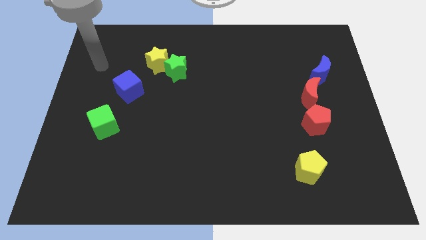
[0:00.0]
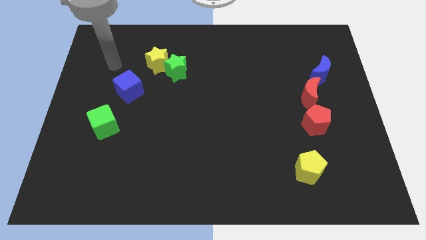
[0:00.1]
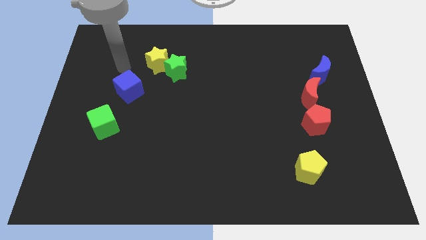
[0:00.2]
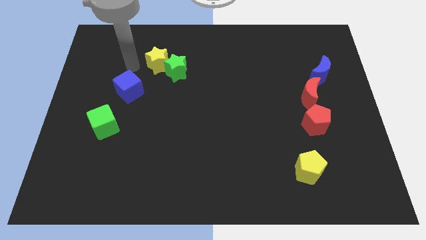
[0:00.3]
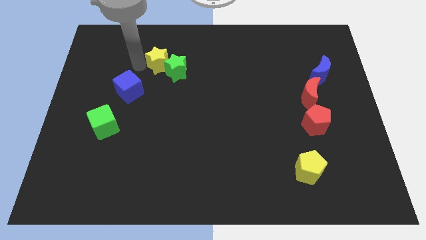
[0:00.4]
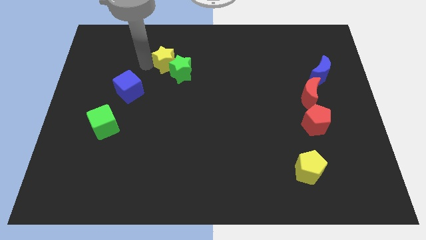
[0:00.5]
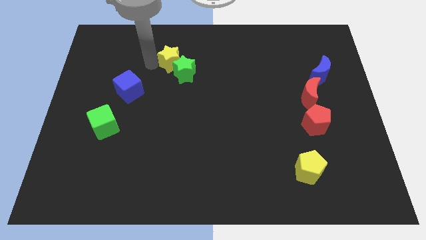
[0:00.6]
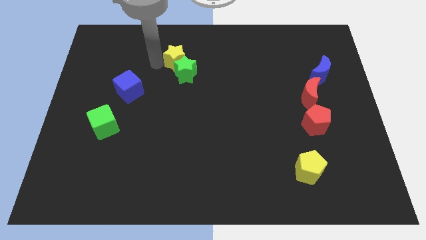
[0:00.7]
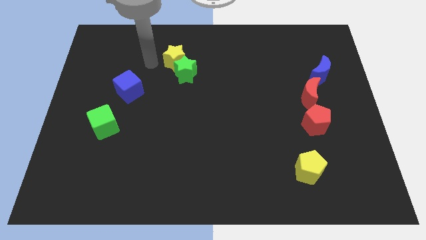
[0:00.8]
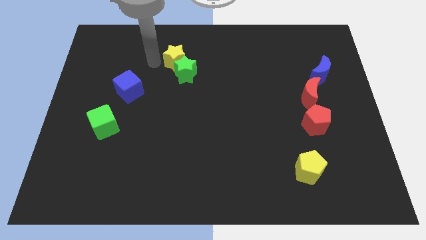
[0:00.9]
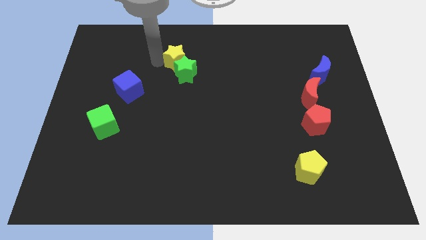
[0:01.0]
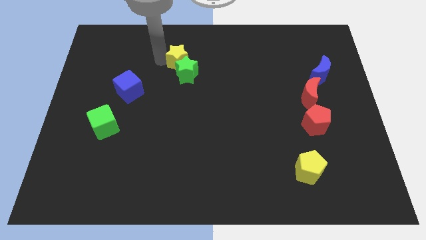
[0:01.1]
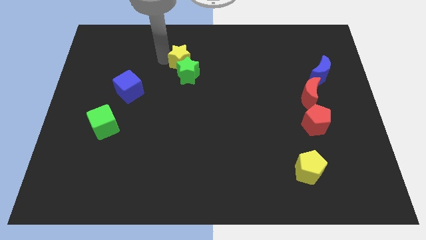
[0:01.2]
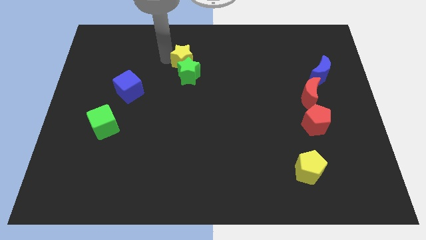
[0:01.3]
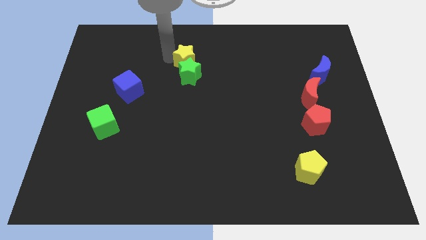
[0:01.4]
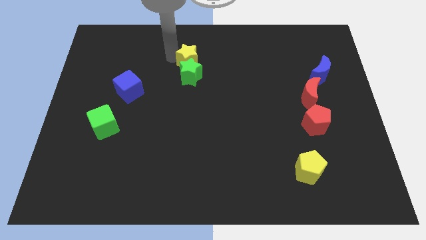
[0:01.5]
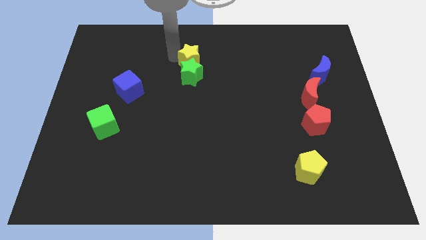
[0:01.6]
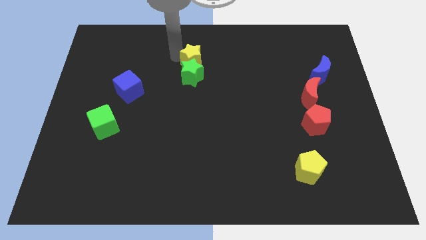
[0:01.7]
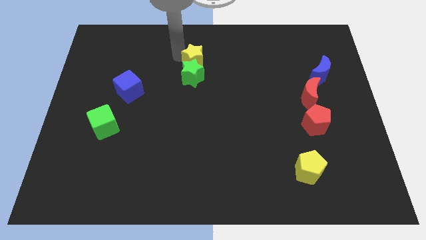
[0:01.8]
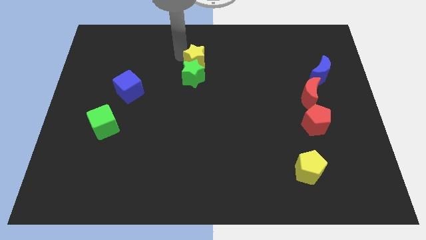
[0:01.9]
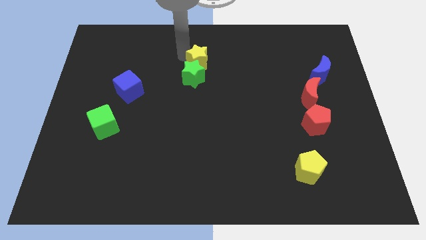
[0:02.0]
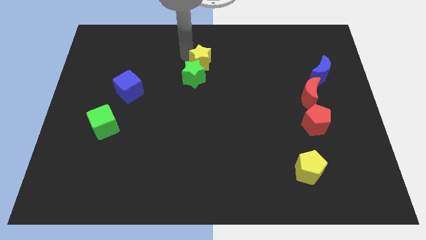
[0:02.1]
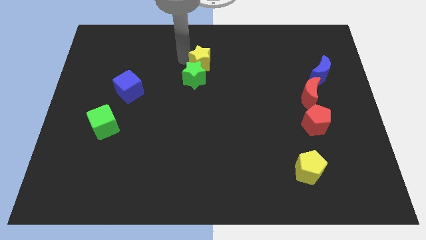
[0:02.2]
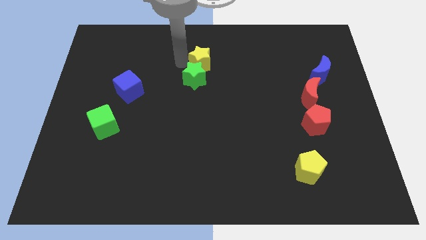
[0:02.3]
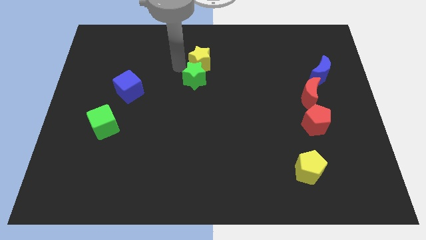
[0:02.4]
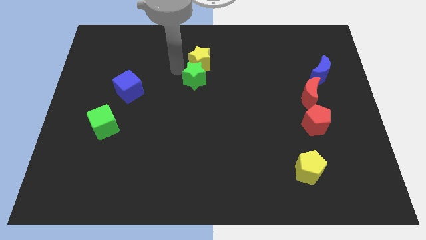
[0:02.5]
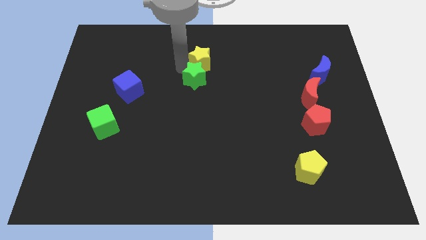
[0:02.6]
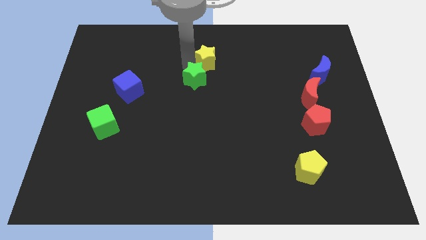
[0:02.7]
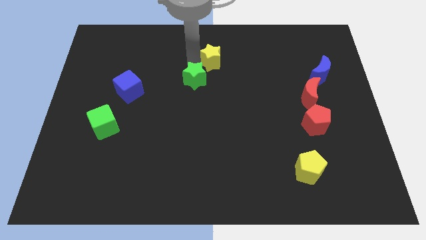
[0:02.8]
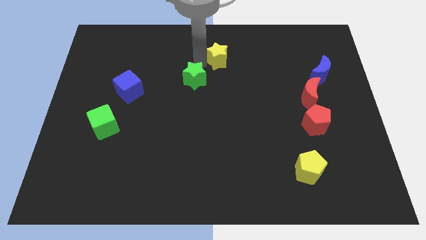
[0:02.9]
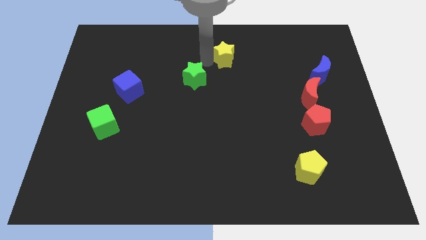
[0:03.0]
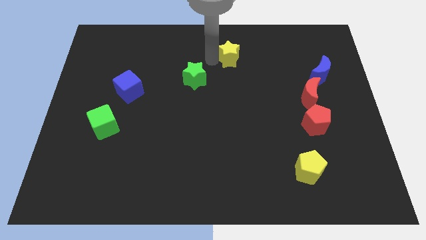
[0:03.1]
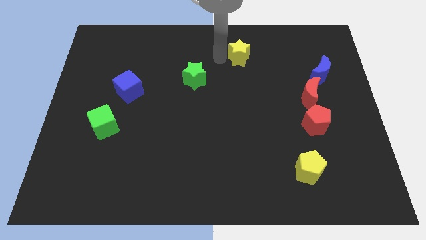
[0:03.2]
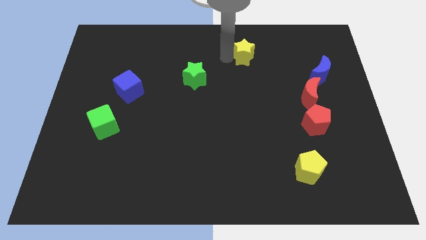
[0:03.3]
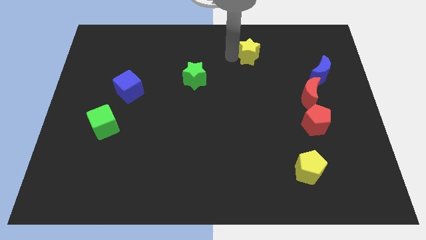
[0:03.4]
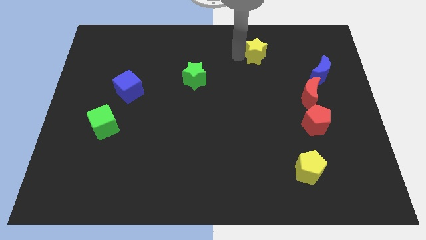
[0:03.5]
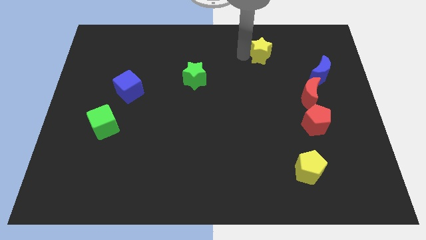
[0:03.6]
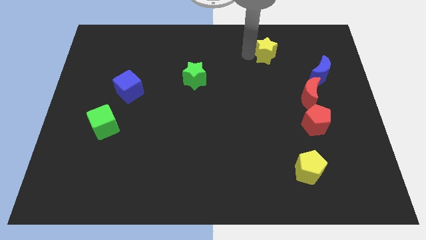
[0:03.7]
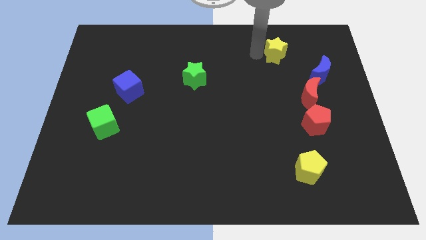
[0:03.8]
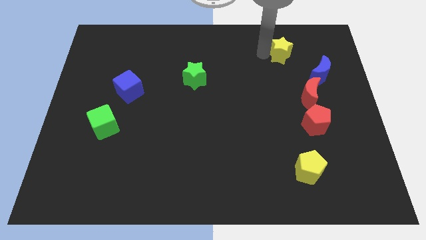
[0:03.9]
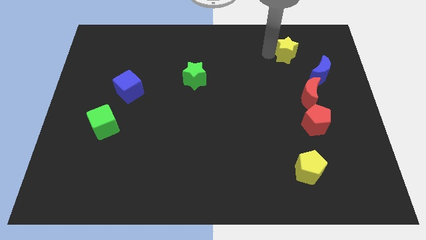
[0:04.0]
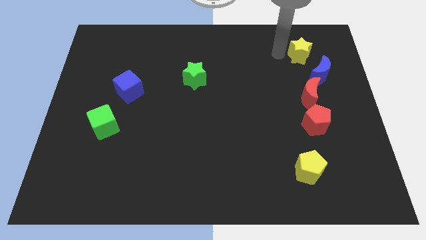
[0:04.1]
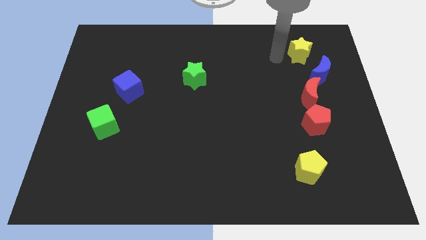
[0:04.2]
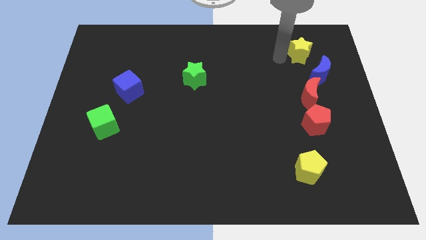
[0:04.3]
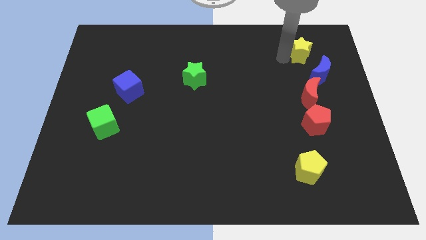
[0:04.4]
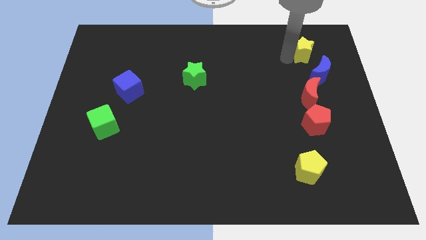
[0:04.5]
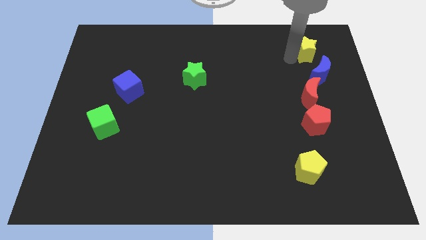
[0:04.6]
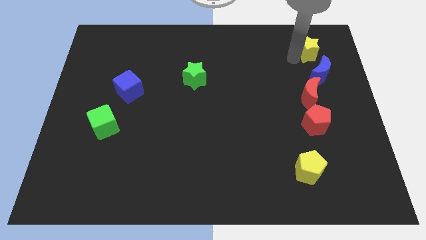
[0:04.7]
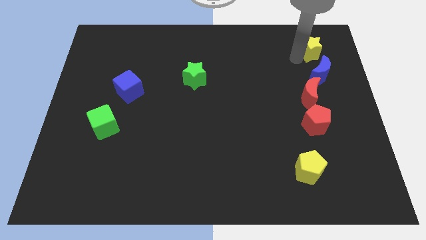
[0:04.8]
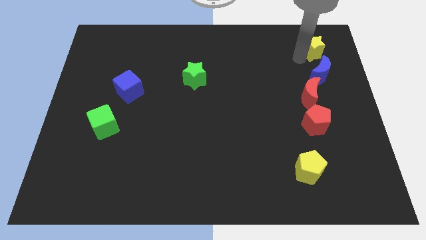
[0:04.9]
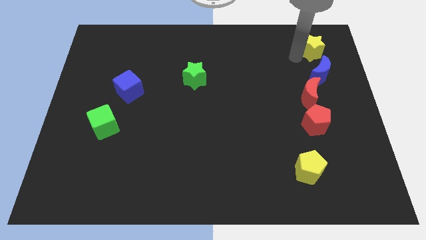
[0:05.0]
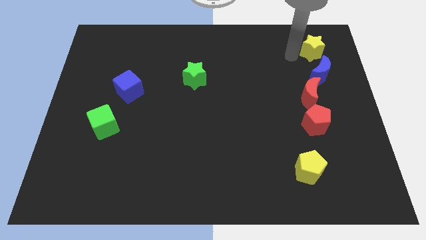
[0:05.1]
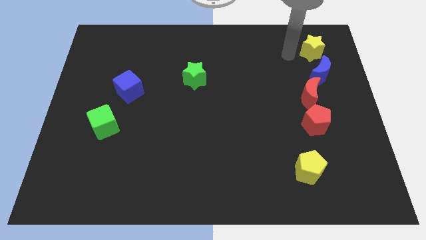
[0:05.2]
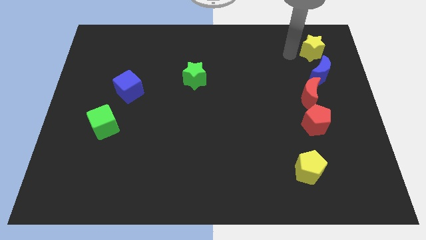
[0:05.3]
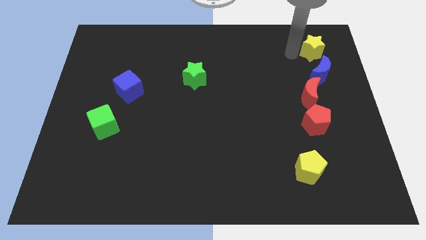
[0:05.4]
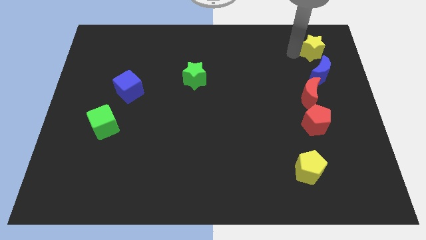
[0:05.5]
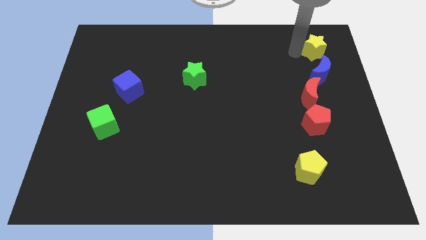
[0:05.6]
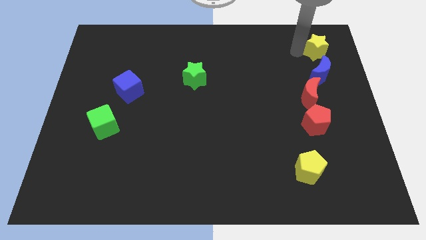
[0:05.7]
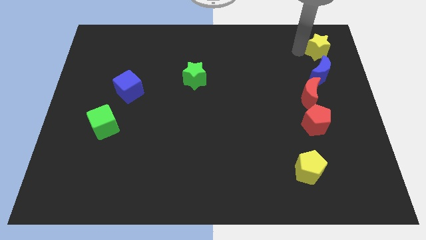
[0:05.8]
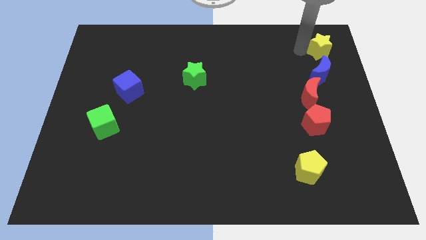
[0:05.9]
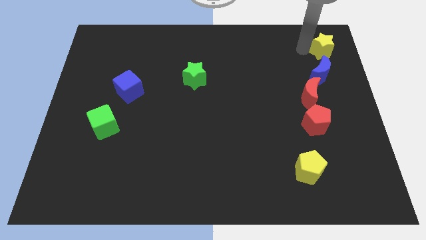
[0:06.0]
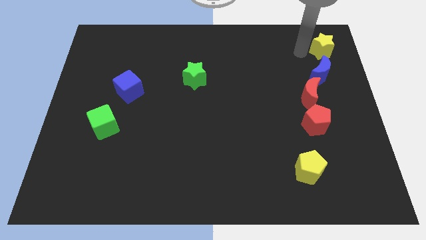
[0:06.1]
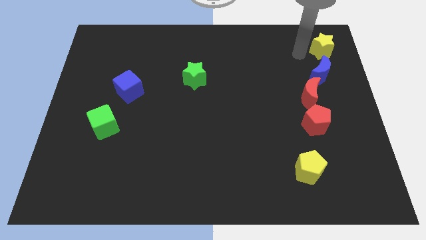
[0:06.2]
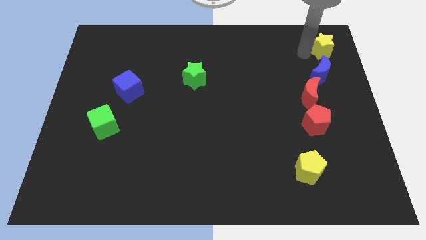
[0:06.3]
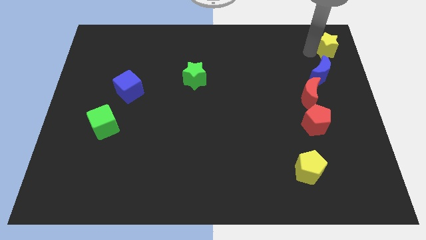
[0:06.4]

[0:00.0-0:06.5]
push the yellow star to the upper right corner
